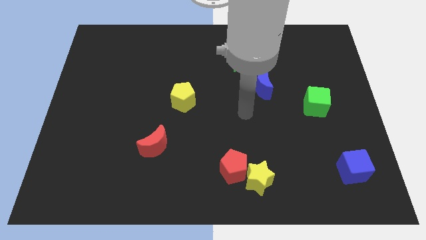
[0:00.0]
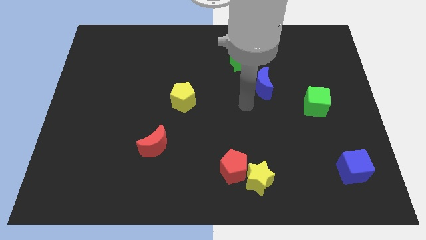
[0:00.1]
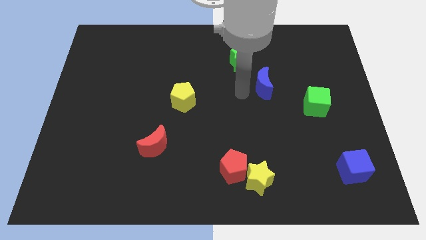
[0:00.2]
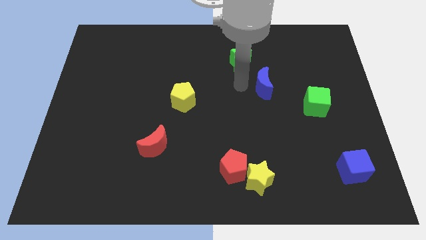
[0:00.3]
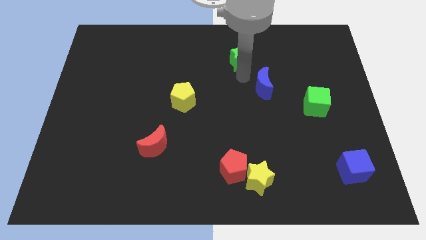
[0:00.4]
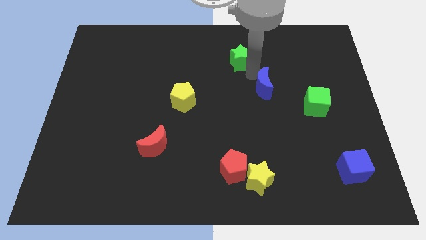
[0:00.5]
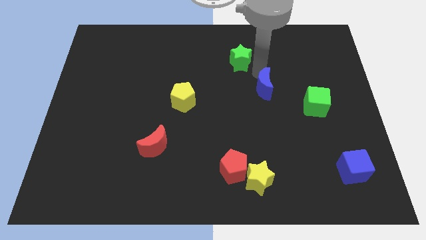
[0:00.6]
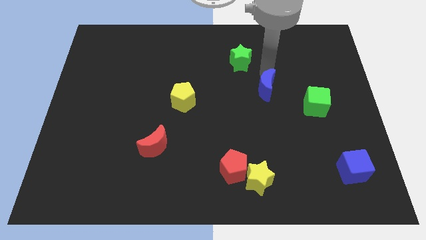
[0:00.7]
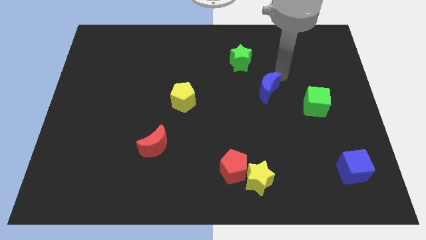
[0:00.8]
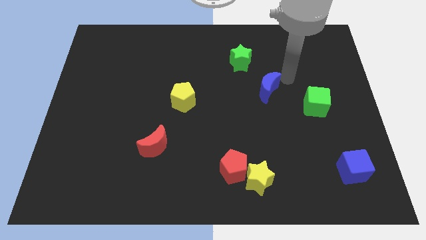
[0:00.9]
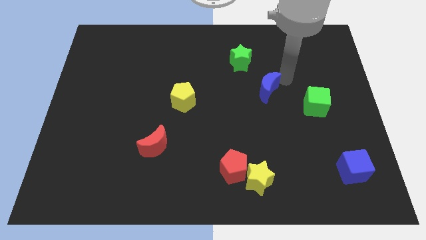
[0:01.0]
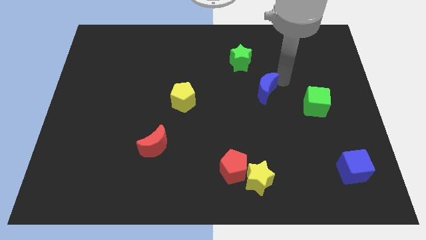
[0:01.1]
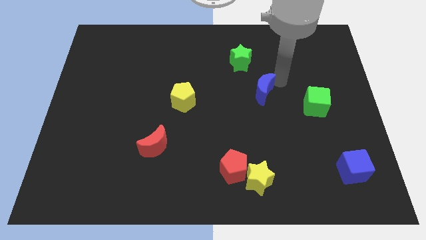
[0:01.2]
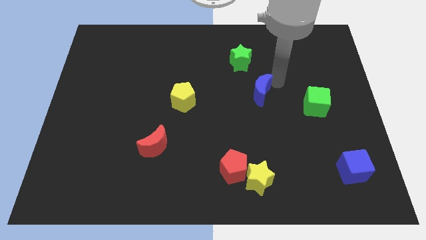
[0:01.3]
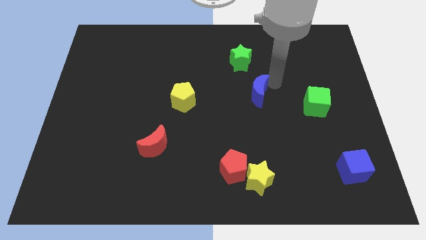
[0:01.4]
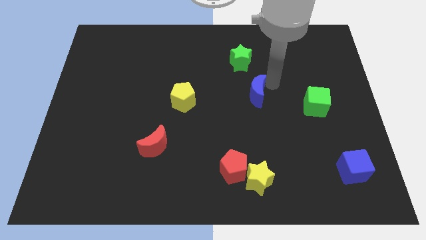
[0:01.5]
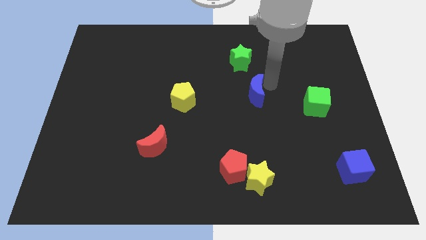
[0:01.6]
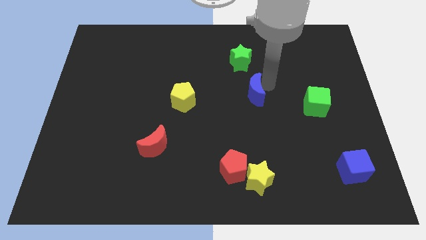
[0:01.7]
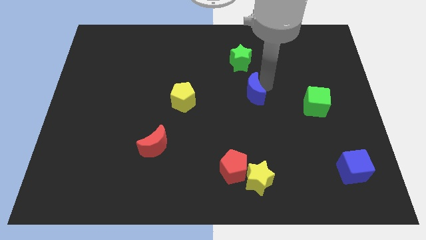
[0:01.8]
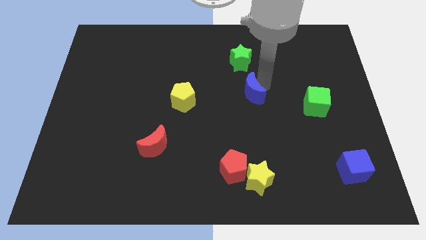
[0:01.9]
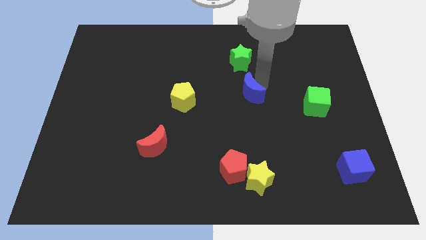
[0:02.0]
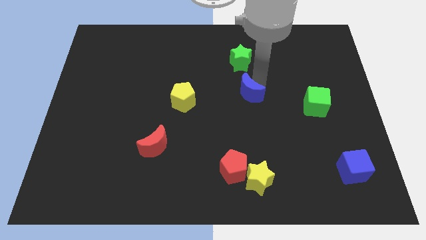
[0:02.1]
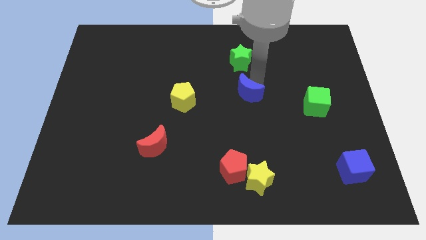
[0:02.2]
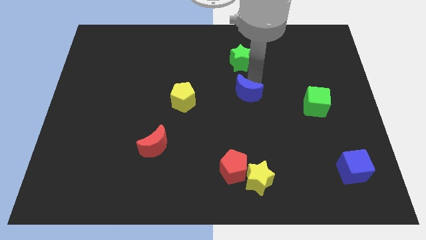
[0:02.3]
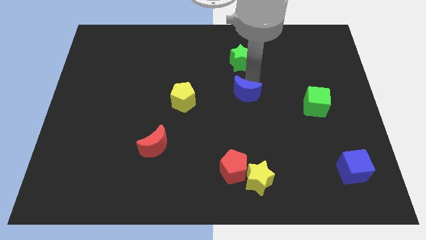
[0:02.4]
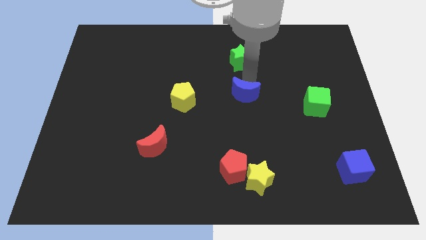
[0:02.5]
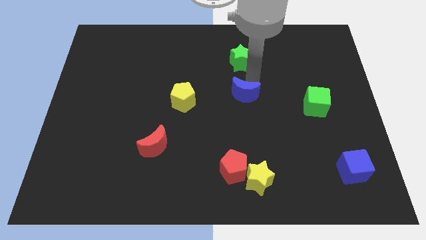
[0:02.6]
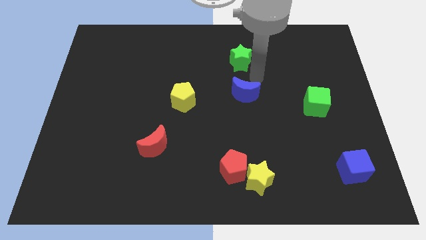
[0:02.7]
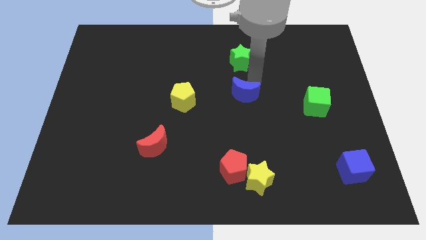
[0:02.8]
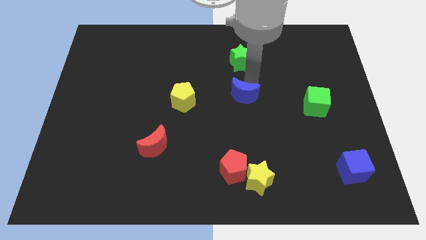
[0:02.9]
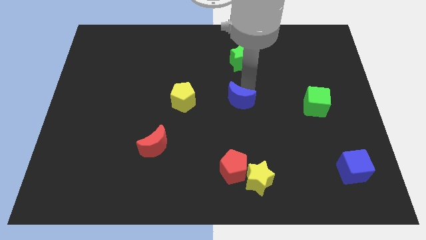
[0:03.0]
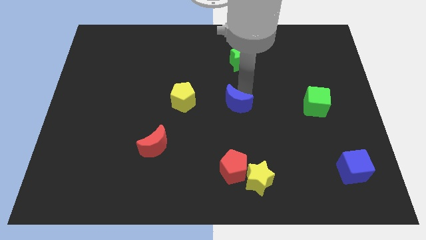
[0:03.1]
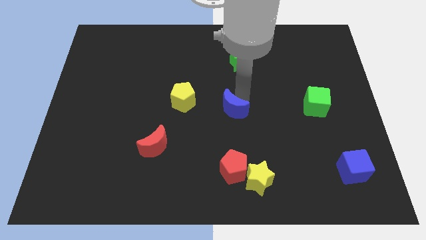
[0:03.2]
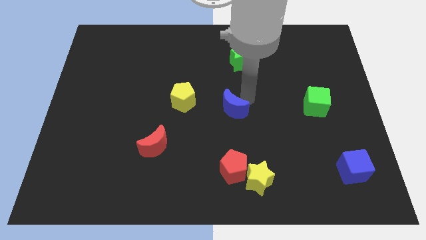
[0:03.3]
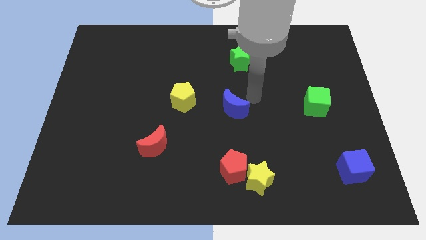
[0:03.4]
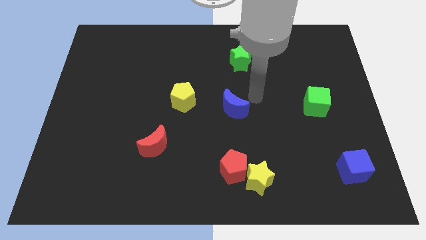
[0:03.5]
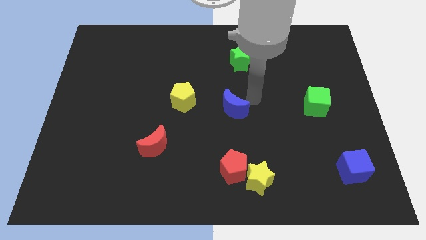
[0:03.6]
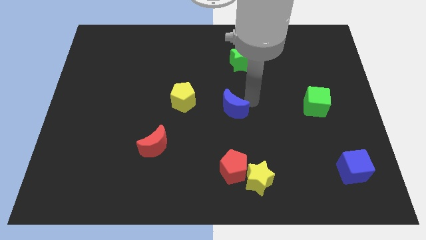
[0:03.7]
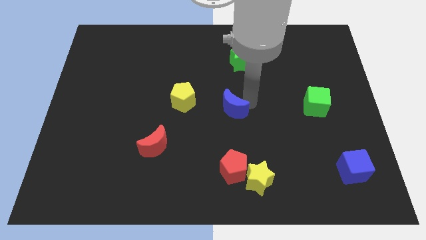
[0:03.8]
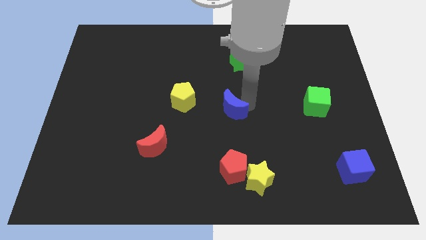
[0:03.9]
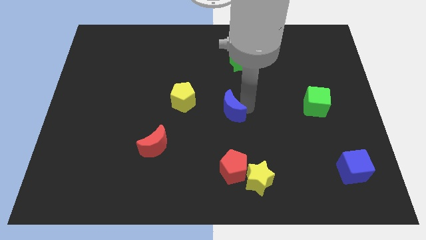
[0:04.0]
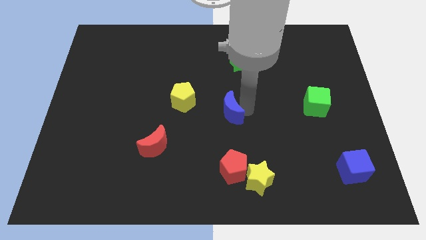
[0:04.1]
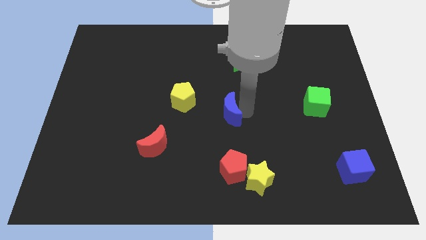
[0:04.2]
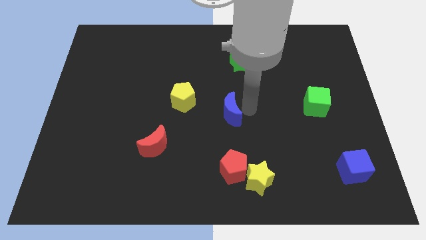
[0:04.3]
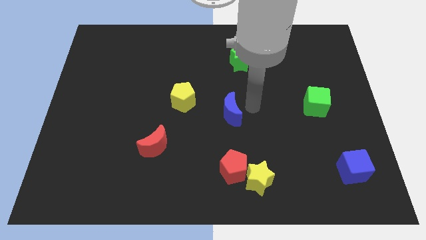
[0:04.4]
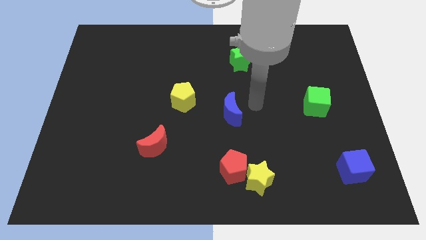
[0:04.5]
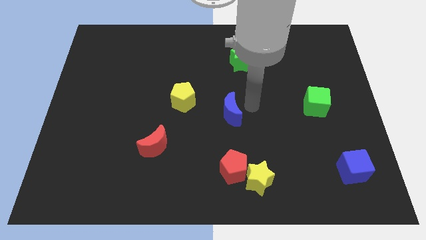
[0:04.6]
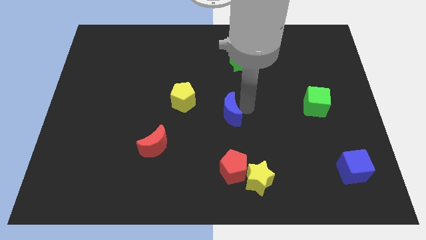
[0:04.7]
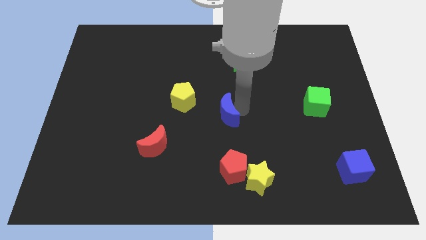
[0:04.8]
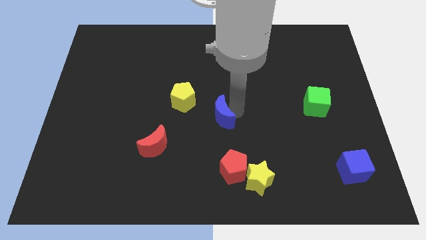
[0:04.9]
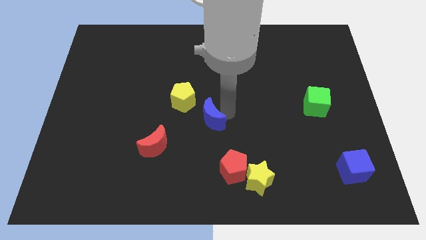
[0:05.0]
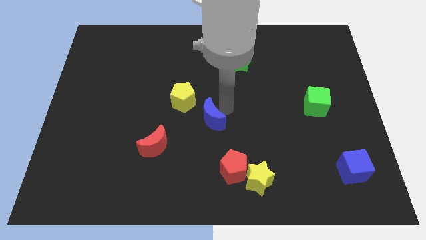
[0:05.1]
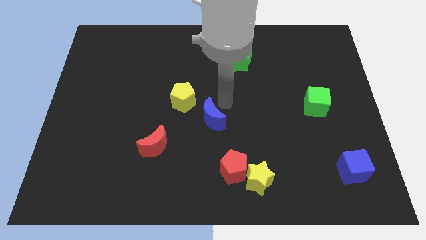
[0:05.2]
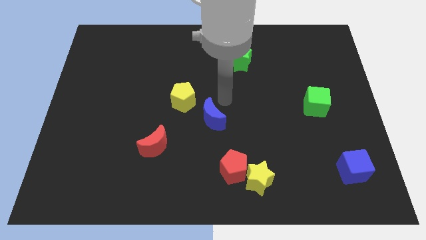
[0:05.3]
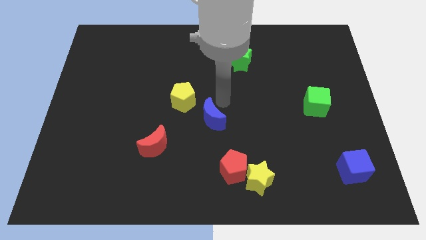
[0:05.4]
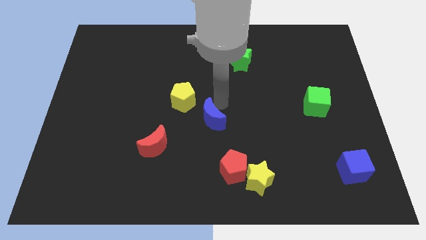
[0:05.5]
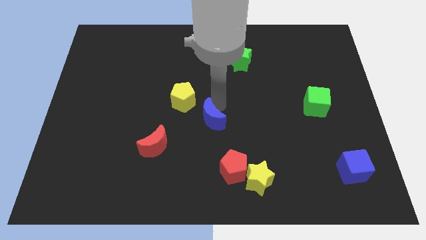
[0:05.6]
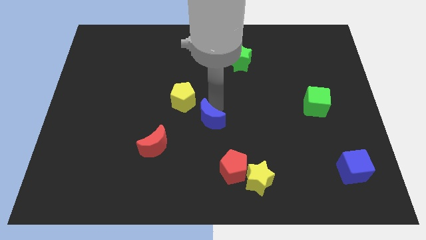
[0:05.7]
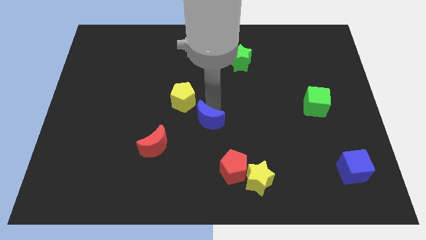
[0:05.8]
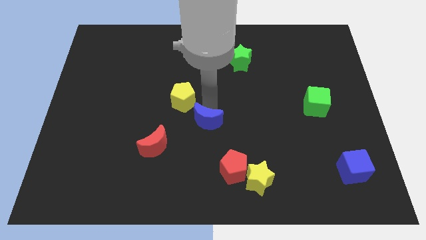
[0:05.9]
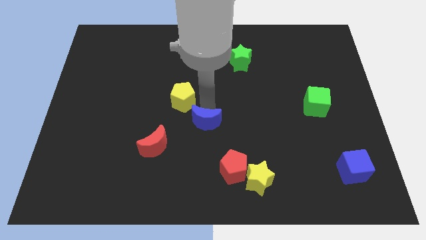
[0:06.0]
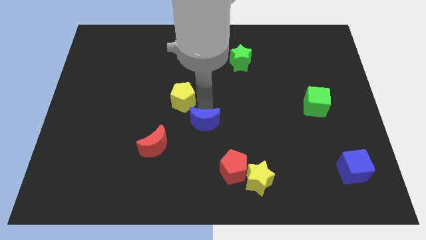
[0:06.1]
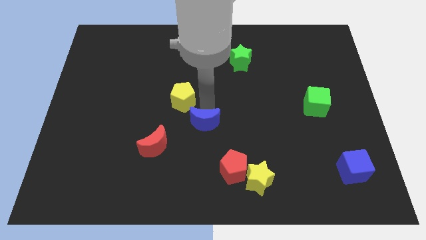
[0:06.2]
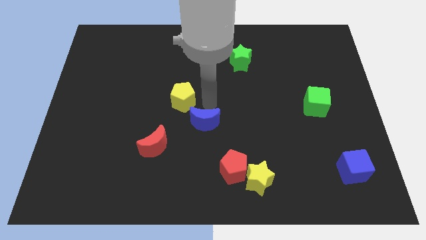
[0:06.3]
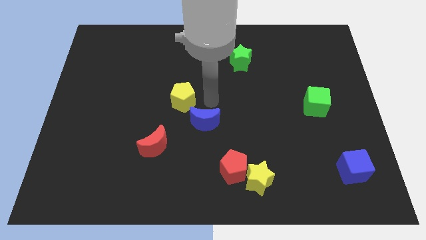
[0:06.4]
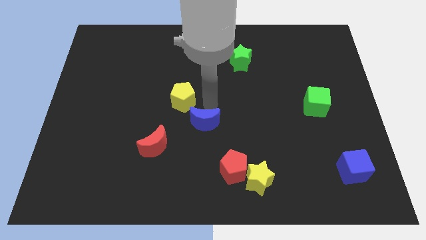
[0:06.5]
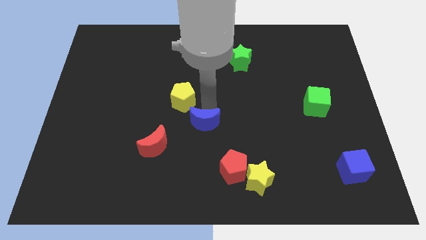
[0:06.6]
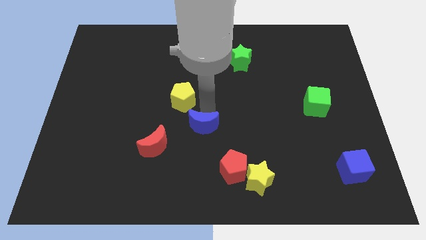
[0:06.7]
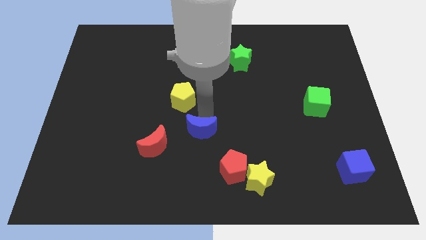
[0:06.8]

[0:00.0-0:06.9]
push the blue moon down and left

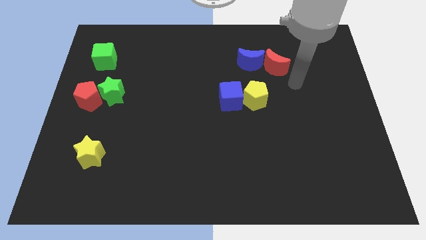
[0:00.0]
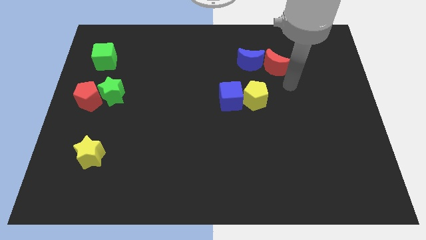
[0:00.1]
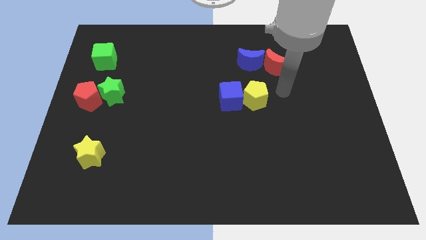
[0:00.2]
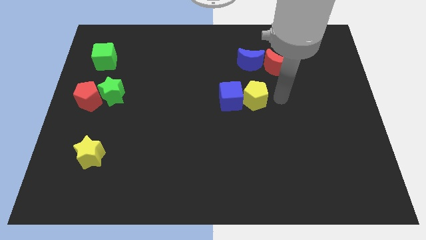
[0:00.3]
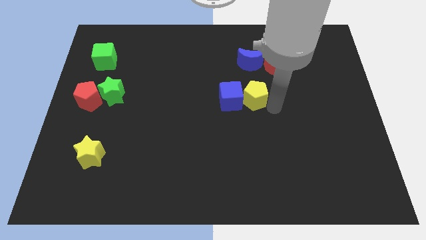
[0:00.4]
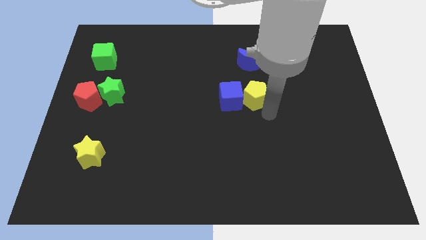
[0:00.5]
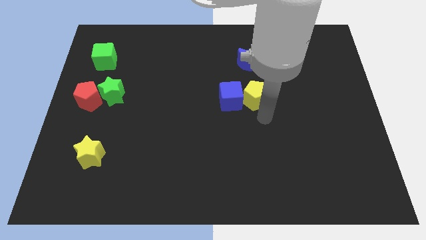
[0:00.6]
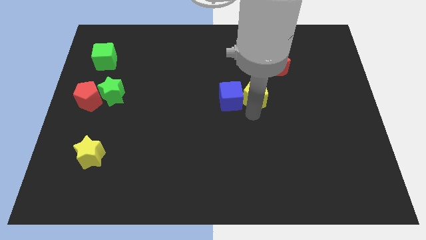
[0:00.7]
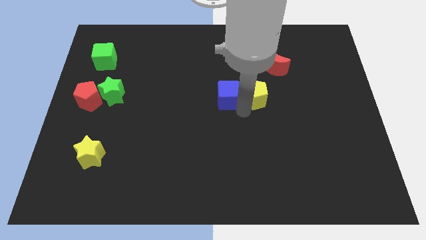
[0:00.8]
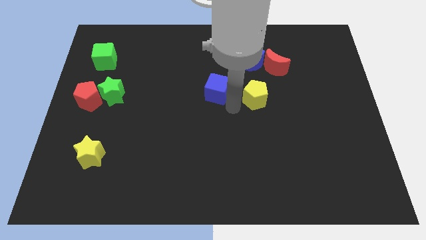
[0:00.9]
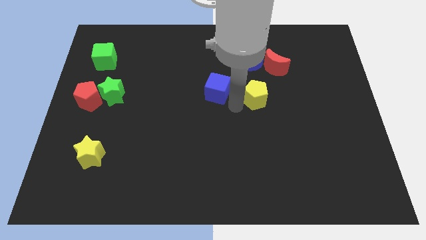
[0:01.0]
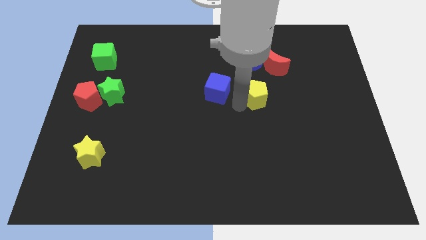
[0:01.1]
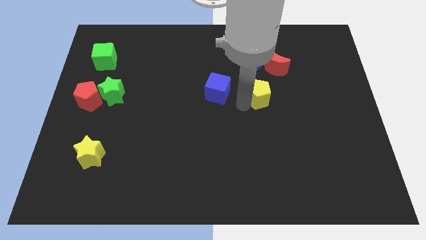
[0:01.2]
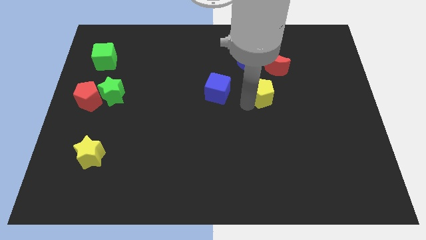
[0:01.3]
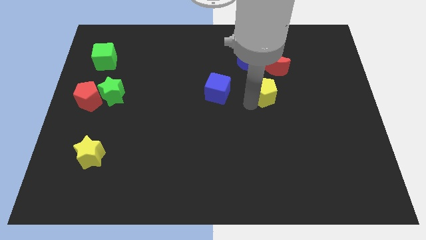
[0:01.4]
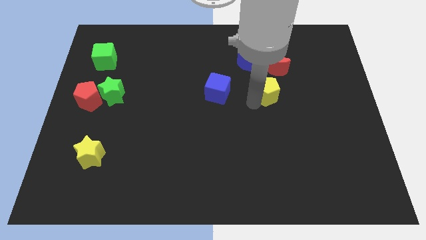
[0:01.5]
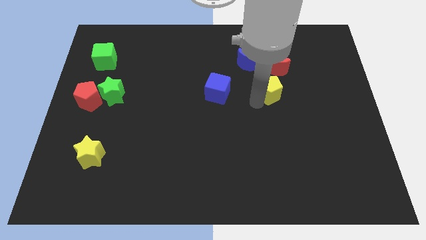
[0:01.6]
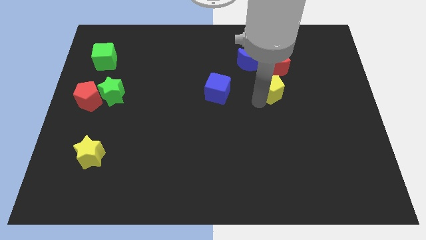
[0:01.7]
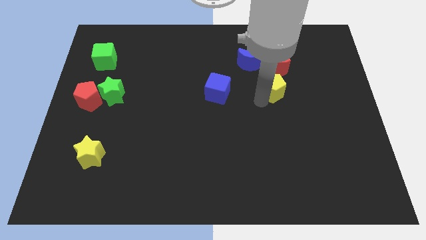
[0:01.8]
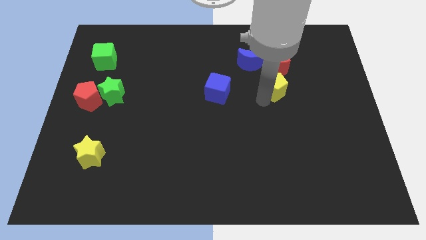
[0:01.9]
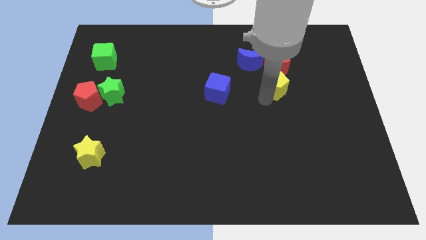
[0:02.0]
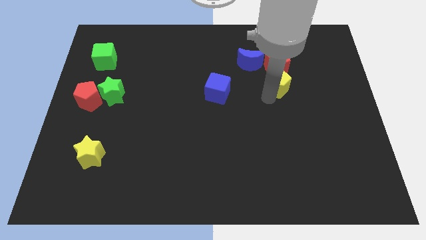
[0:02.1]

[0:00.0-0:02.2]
push the yellow pentagon a bit up and to the right diagonally
